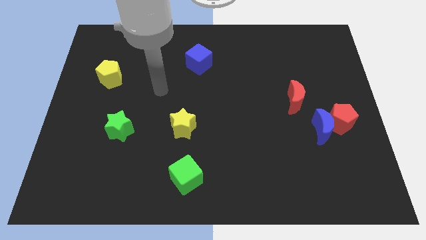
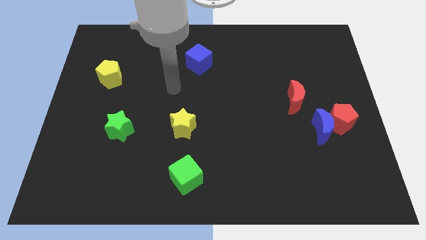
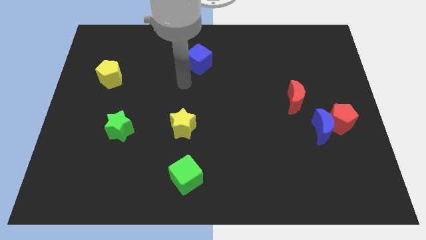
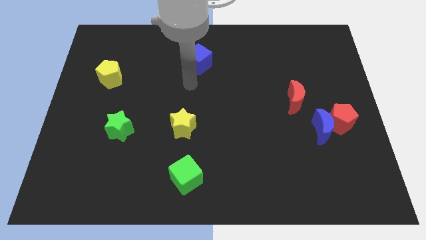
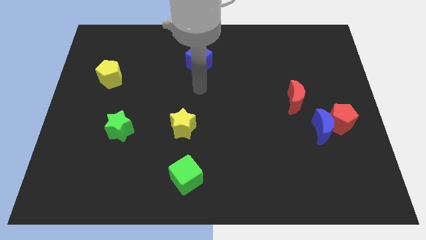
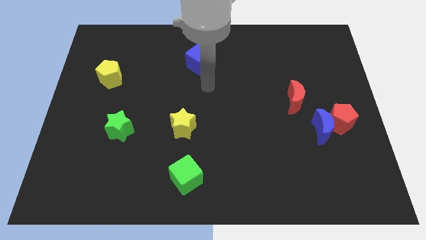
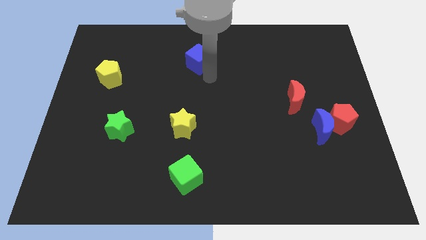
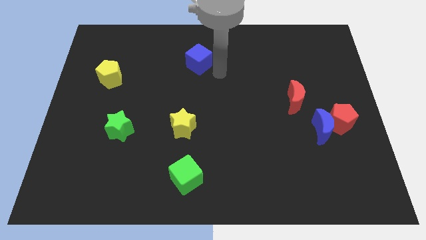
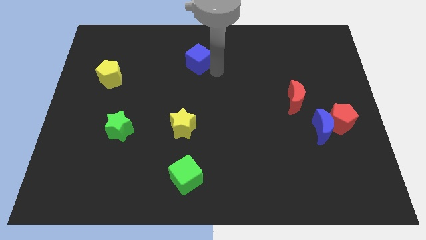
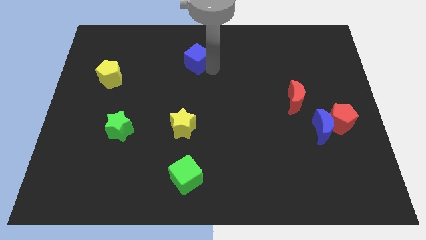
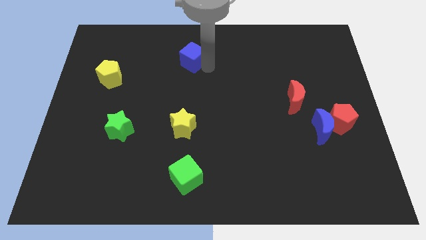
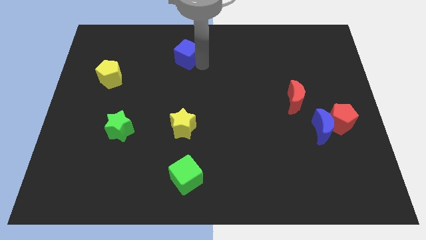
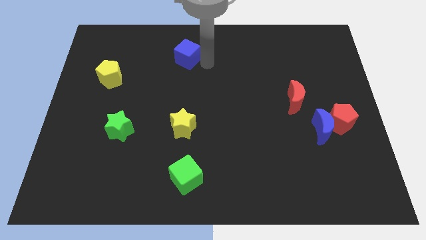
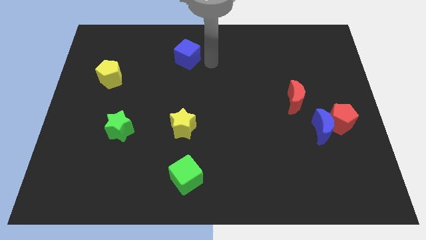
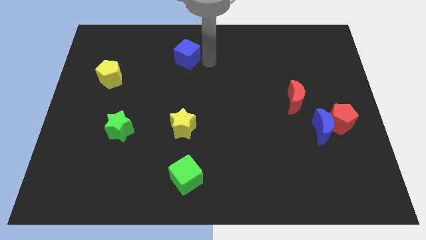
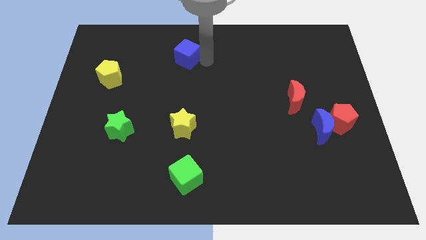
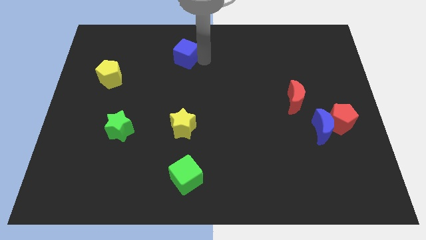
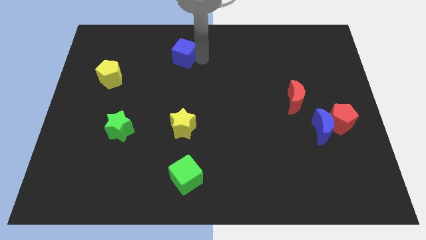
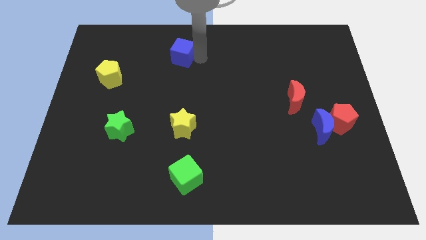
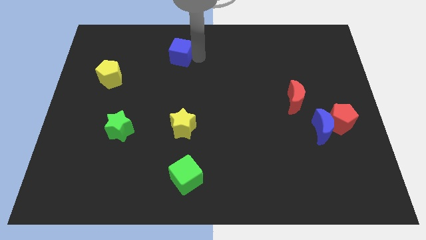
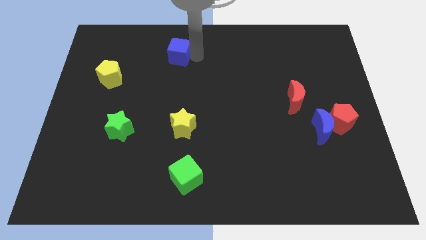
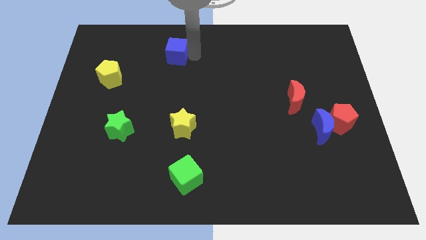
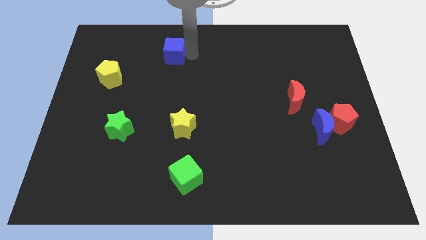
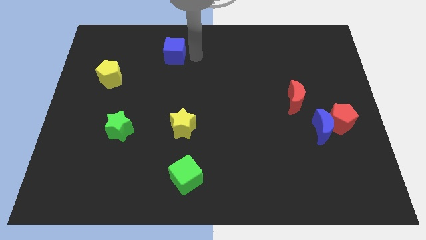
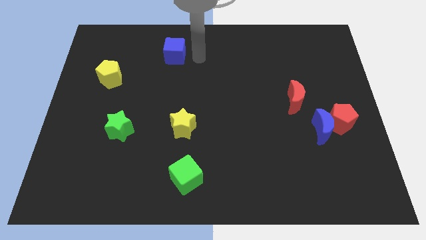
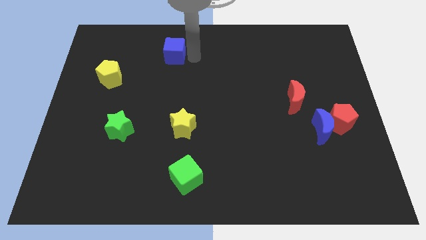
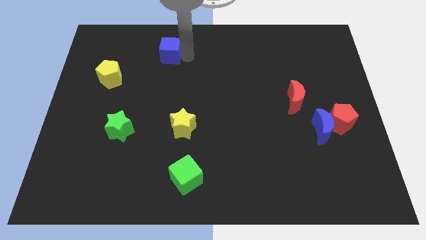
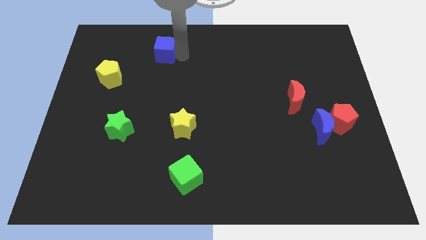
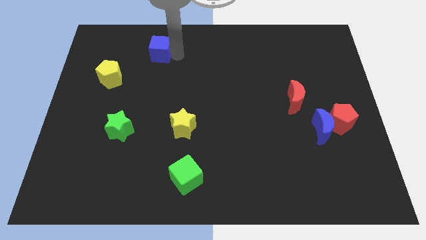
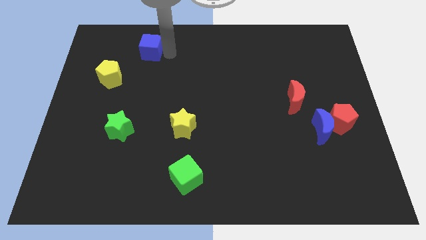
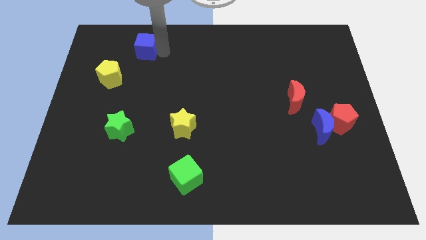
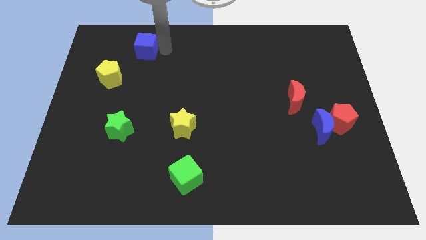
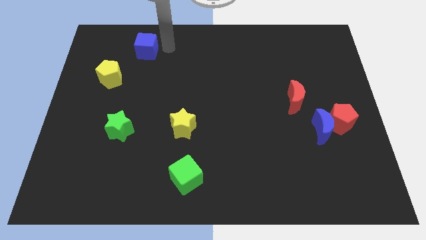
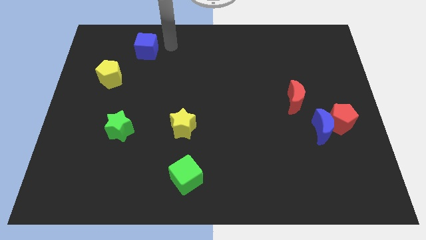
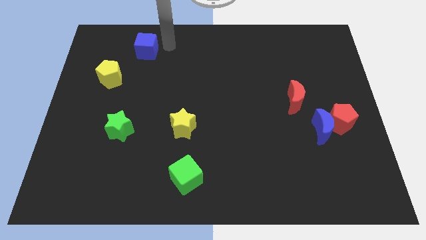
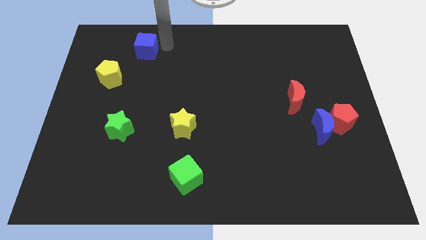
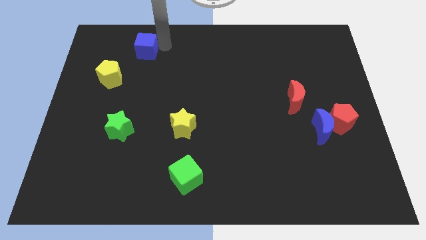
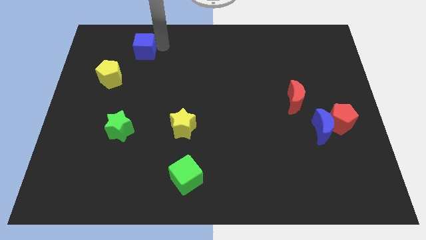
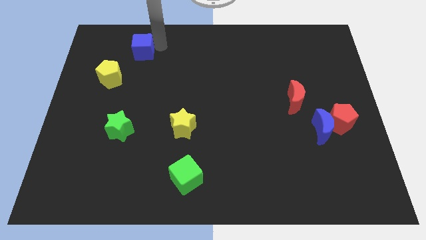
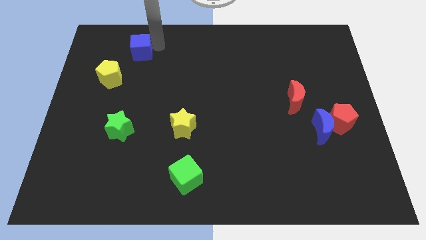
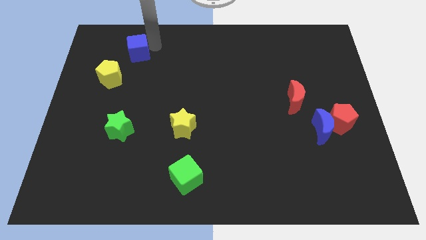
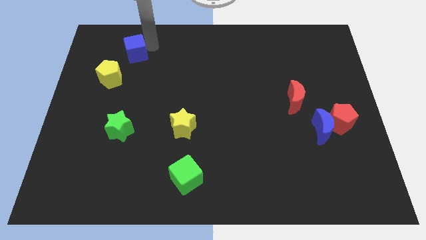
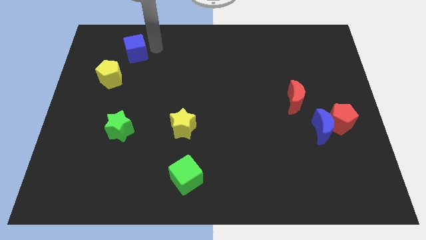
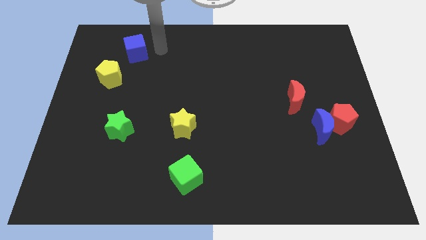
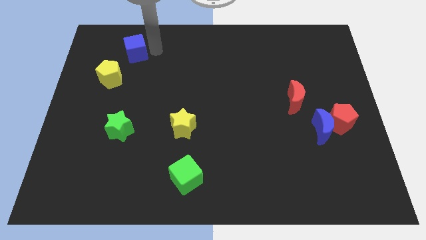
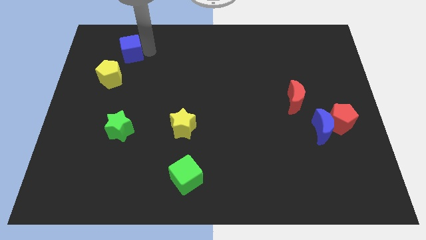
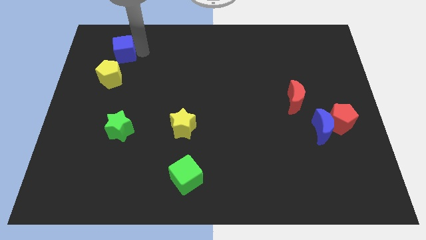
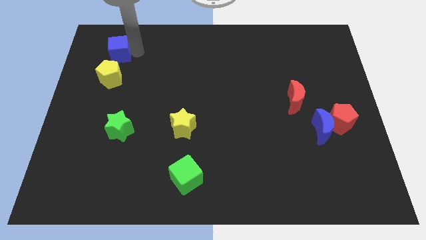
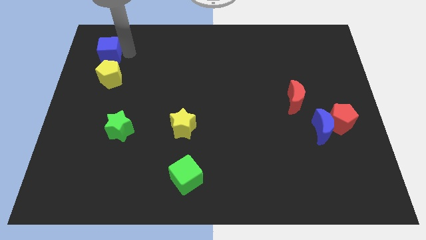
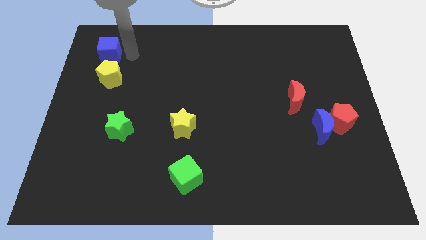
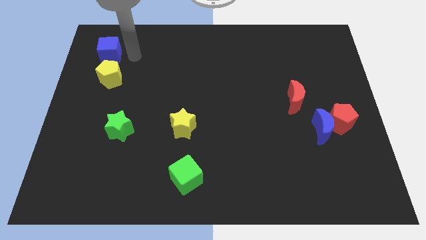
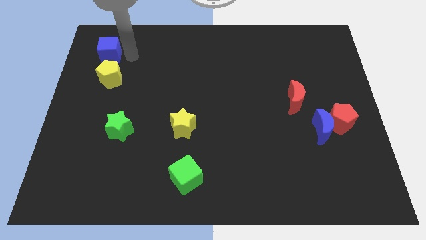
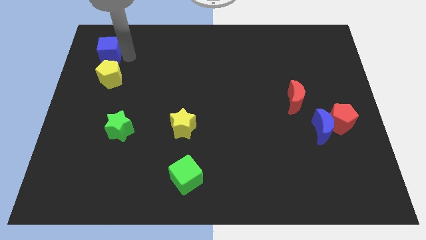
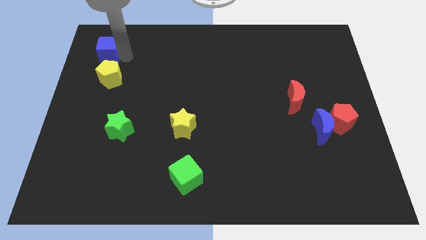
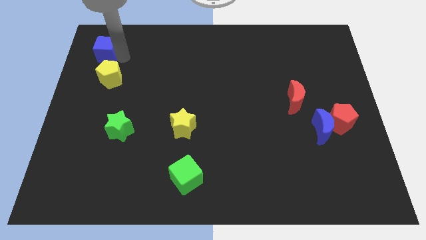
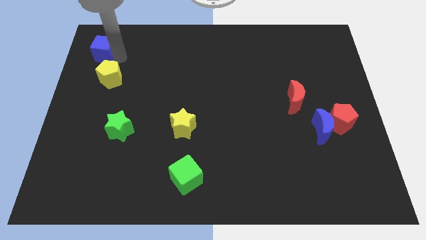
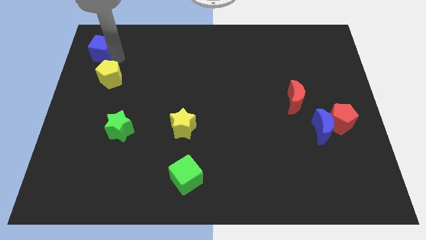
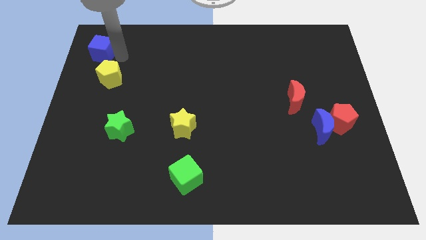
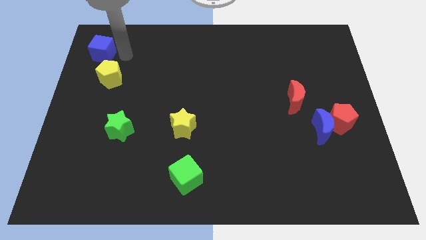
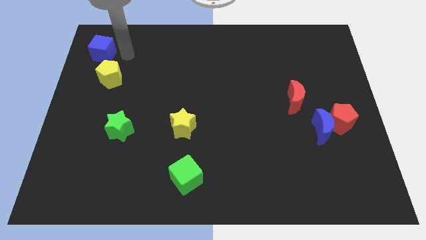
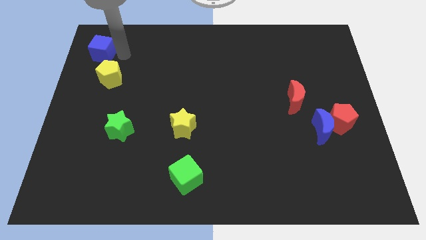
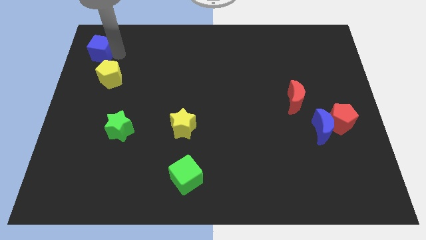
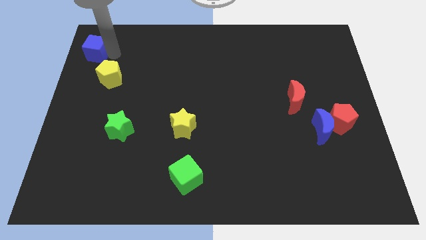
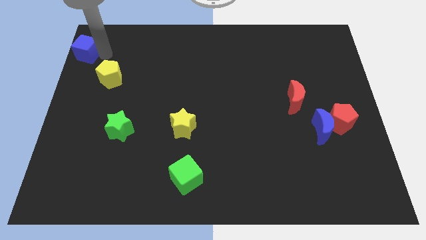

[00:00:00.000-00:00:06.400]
slide the blue cube to the top left corner
